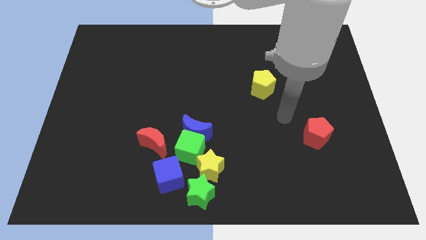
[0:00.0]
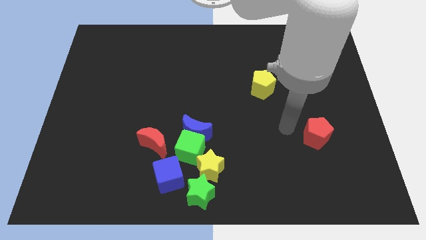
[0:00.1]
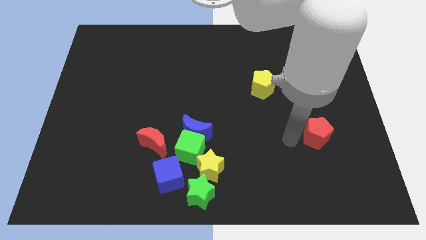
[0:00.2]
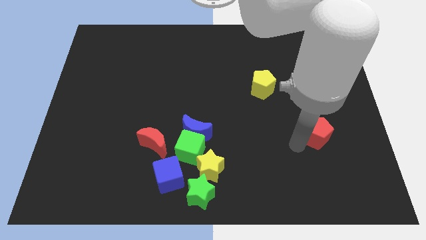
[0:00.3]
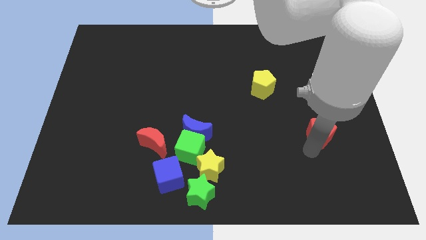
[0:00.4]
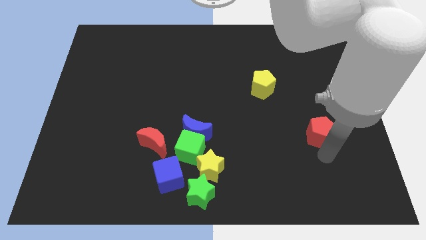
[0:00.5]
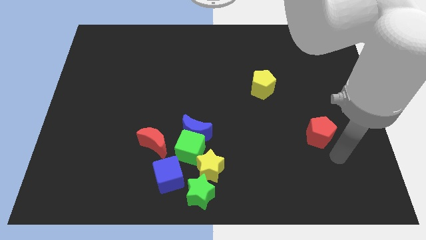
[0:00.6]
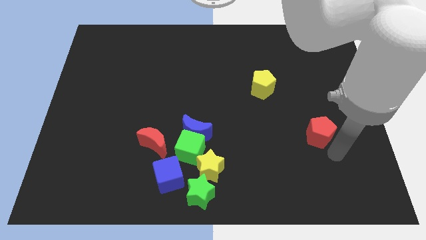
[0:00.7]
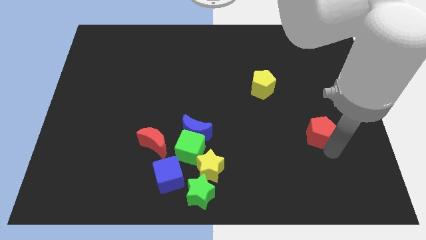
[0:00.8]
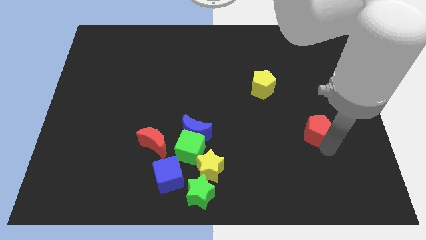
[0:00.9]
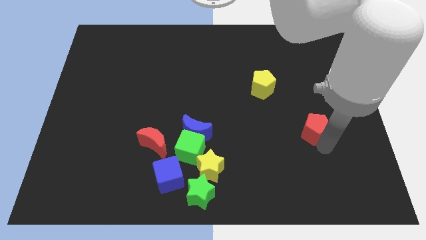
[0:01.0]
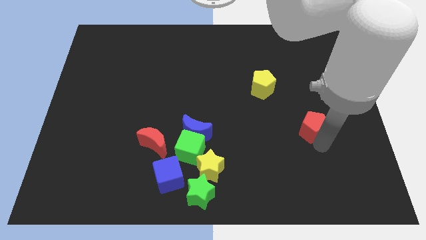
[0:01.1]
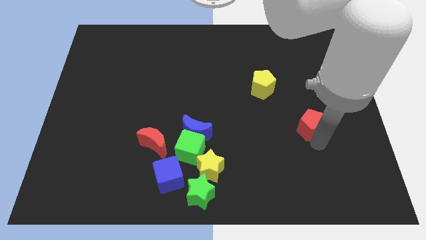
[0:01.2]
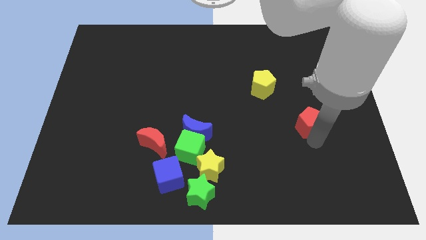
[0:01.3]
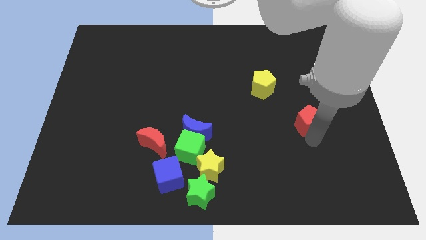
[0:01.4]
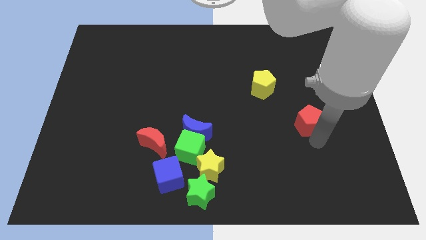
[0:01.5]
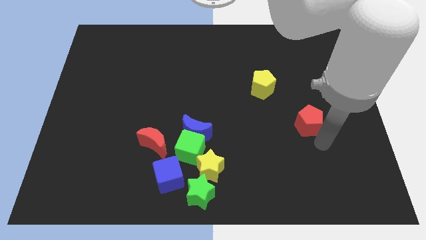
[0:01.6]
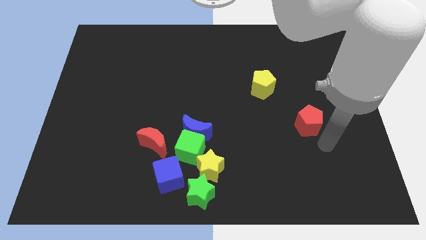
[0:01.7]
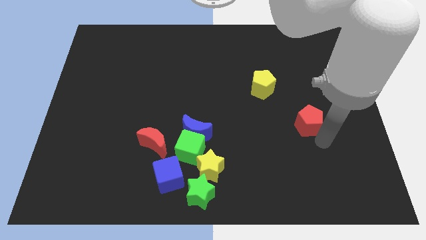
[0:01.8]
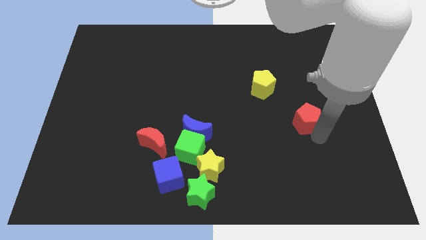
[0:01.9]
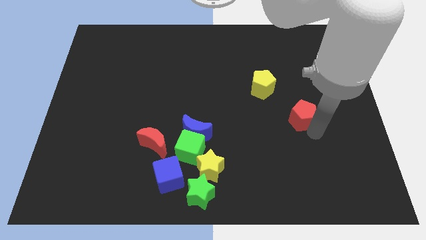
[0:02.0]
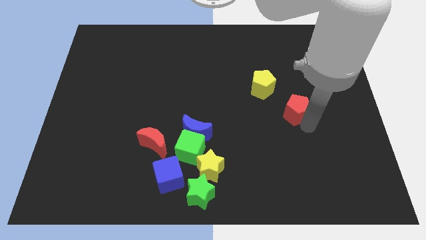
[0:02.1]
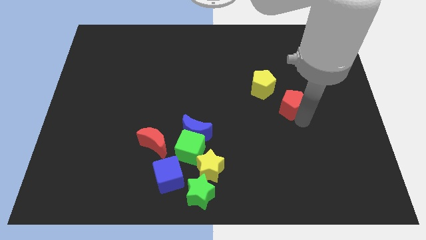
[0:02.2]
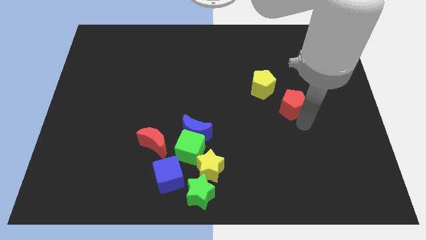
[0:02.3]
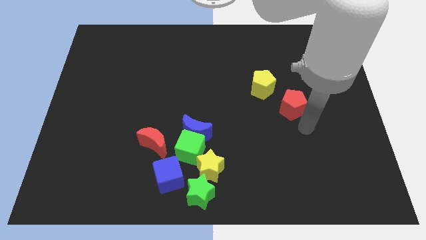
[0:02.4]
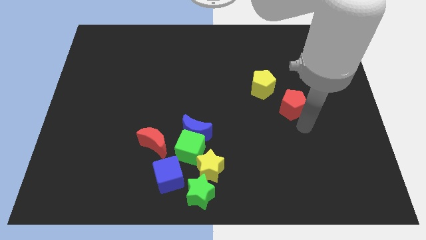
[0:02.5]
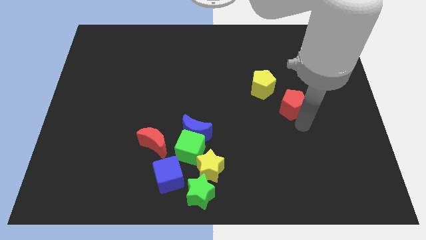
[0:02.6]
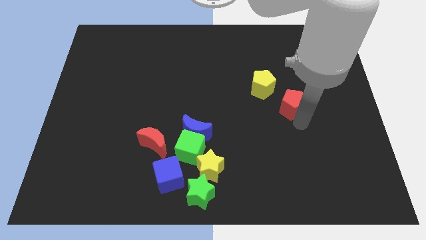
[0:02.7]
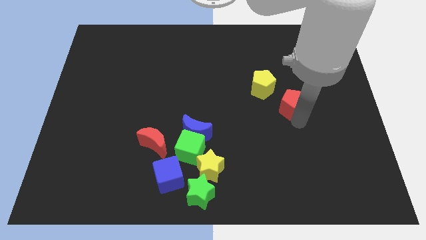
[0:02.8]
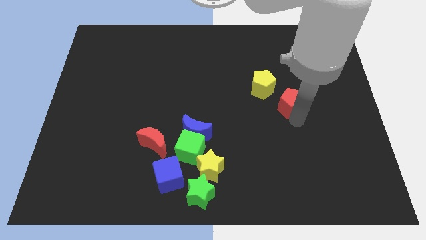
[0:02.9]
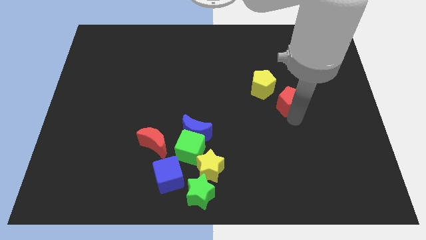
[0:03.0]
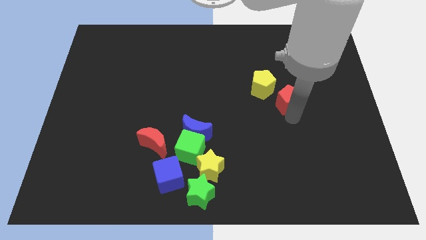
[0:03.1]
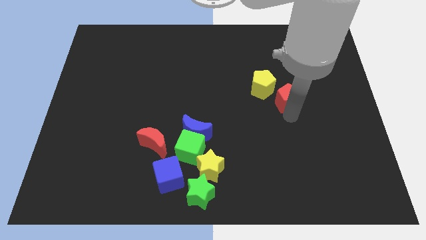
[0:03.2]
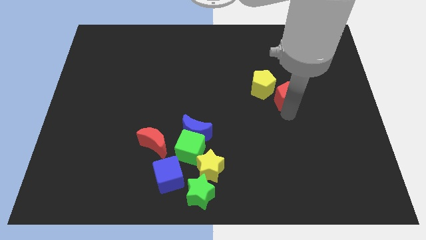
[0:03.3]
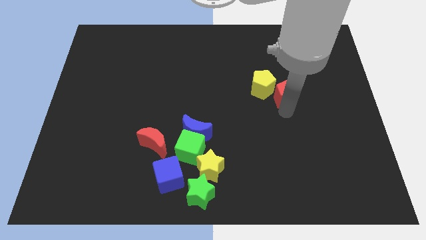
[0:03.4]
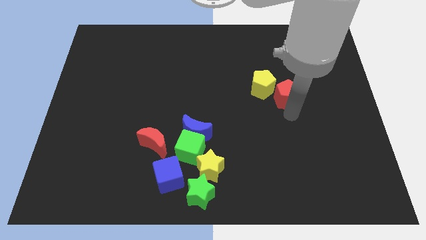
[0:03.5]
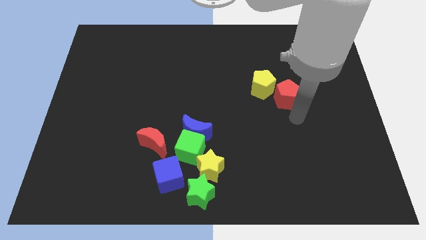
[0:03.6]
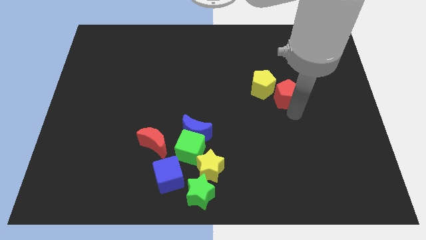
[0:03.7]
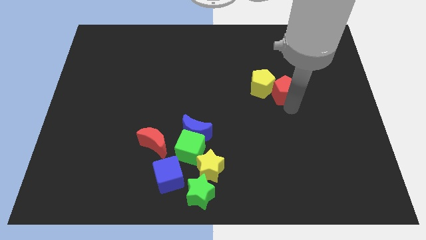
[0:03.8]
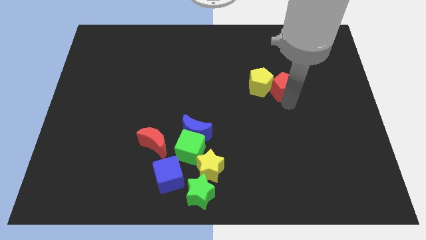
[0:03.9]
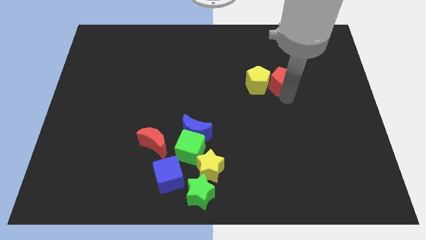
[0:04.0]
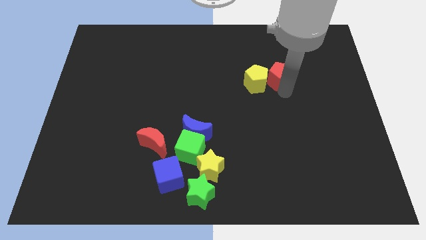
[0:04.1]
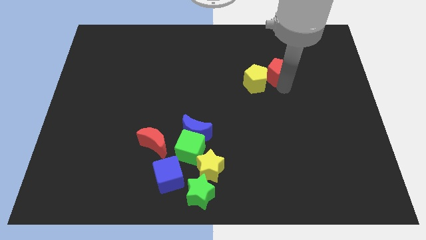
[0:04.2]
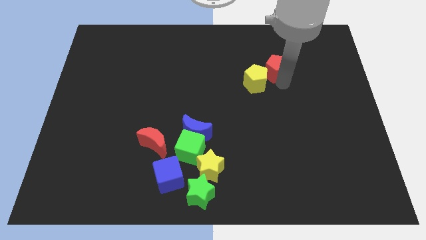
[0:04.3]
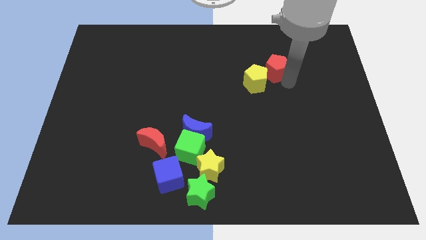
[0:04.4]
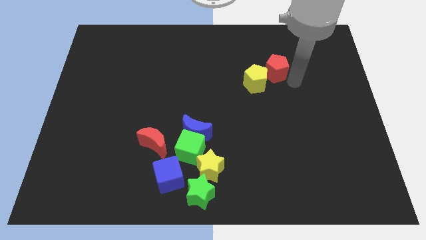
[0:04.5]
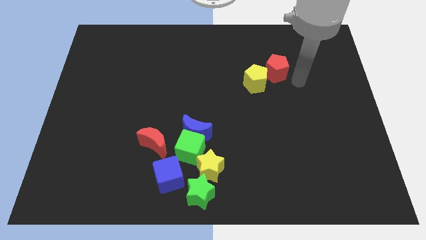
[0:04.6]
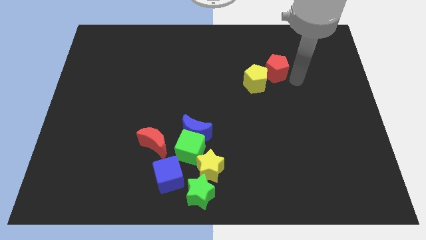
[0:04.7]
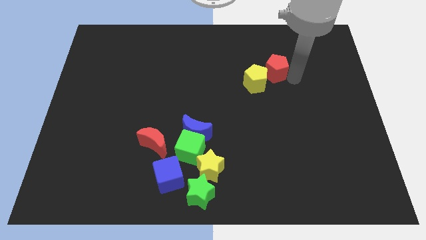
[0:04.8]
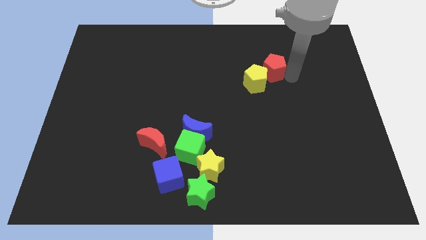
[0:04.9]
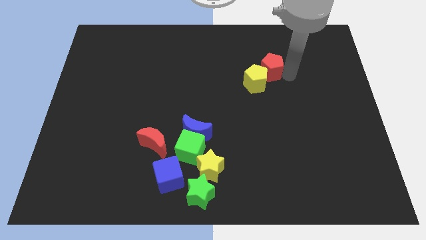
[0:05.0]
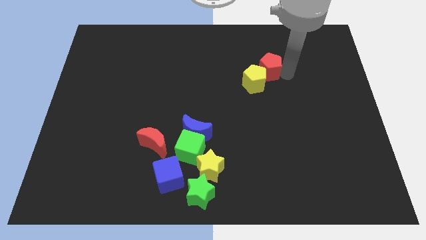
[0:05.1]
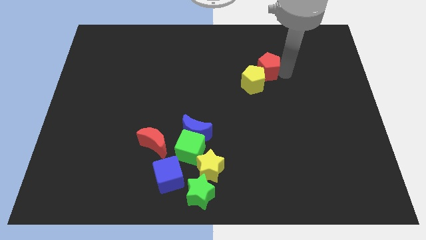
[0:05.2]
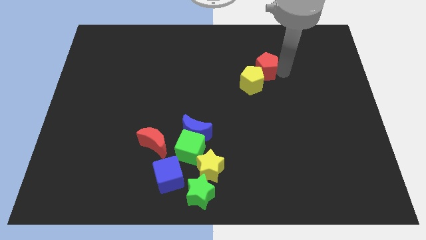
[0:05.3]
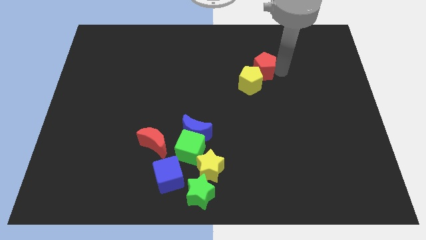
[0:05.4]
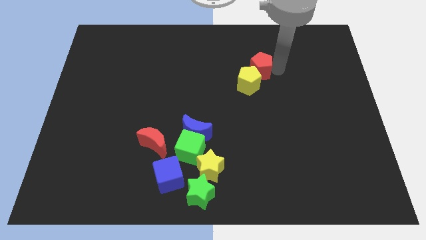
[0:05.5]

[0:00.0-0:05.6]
slide the red pentagon up and to the left diagonally

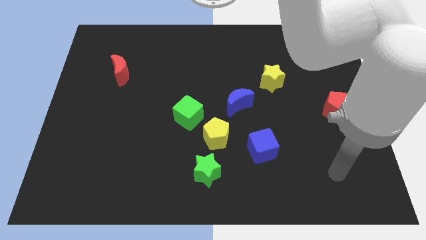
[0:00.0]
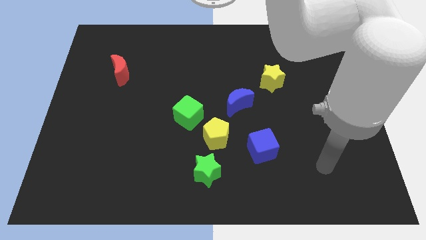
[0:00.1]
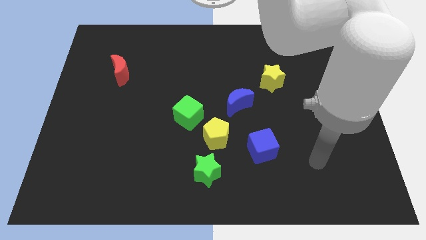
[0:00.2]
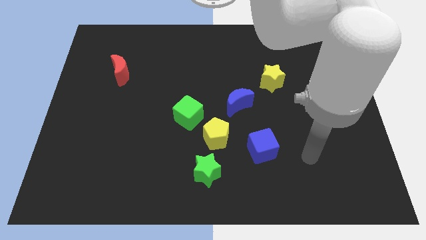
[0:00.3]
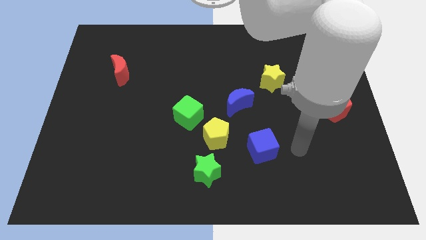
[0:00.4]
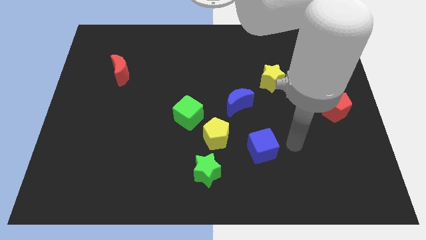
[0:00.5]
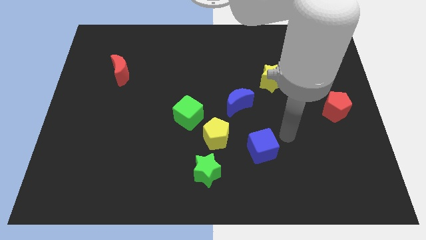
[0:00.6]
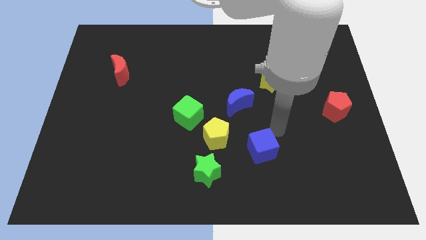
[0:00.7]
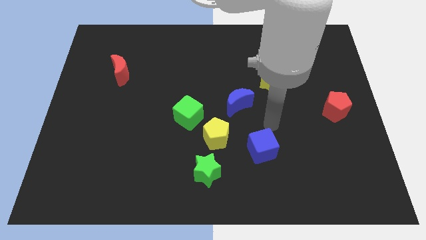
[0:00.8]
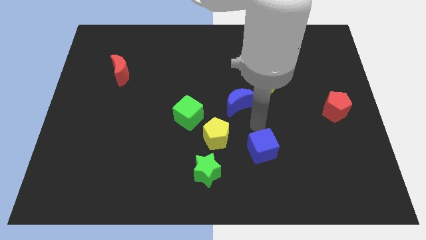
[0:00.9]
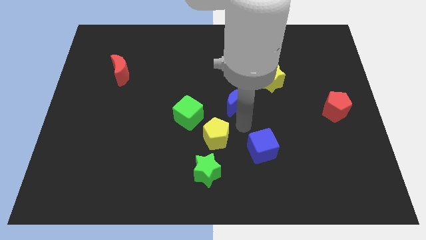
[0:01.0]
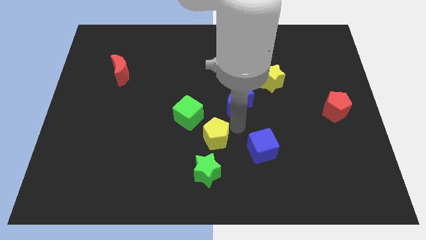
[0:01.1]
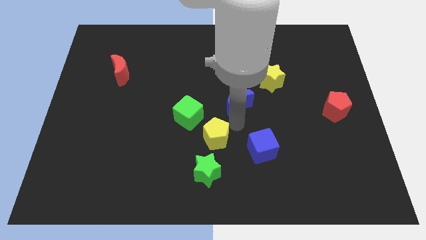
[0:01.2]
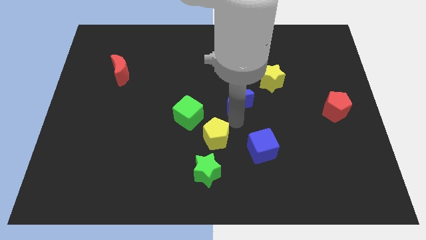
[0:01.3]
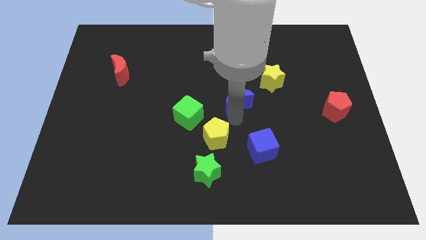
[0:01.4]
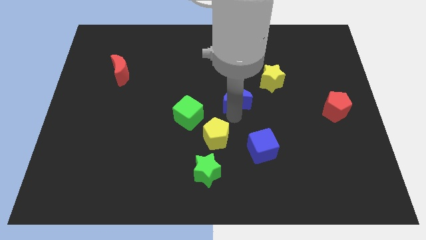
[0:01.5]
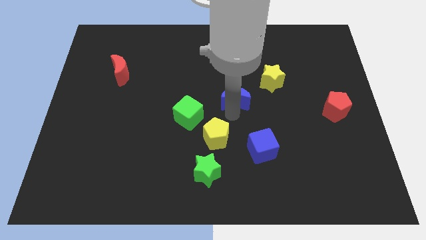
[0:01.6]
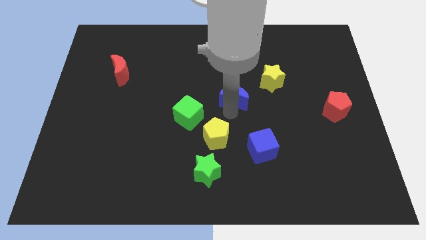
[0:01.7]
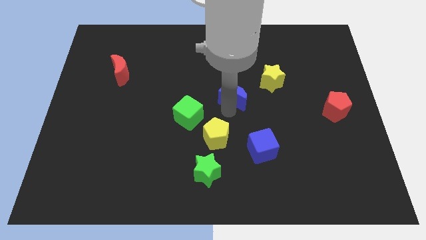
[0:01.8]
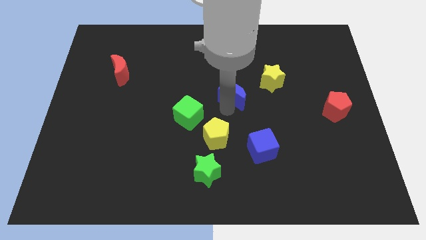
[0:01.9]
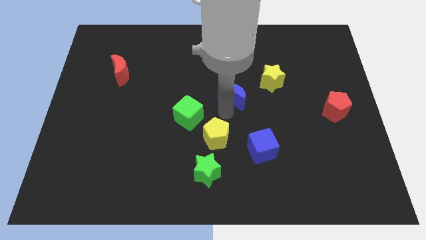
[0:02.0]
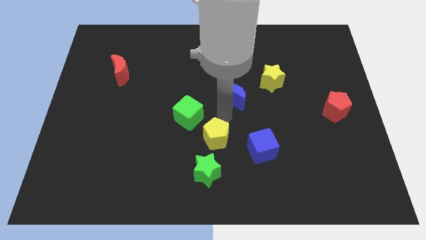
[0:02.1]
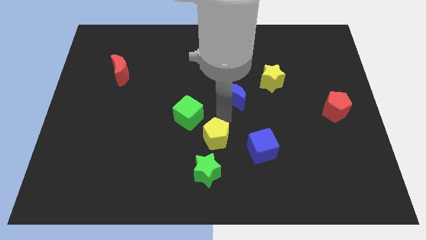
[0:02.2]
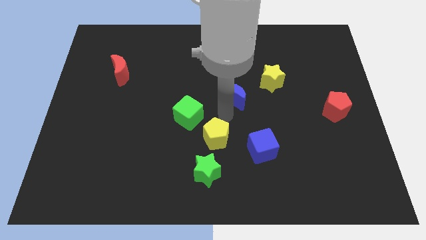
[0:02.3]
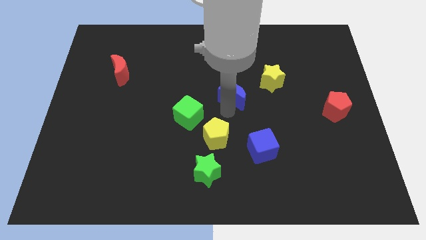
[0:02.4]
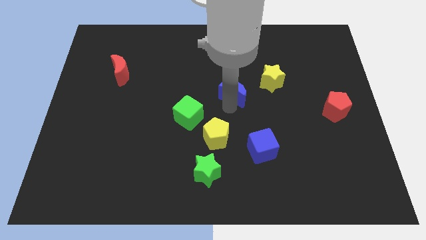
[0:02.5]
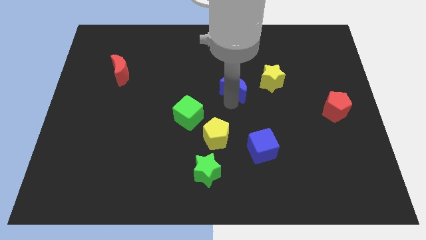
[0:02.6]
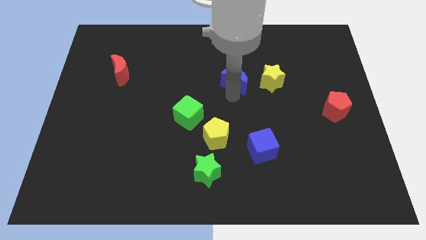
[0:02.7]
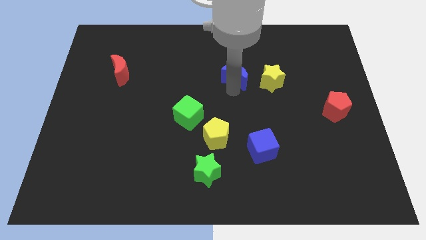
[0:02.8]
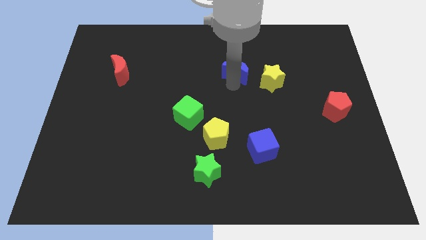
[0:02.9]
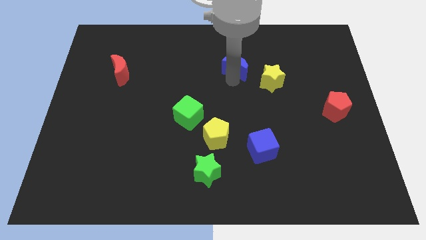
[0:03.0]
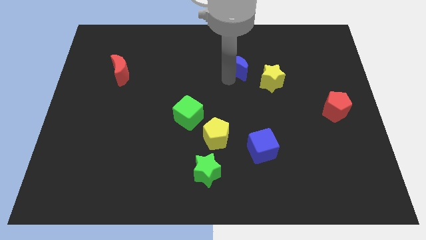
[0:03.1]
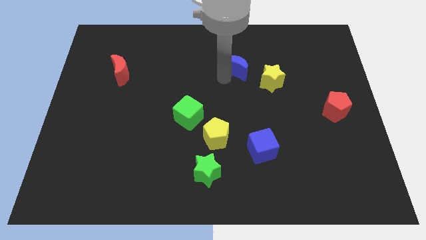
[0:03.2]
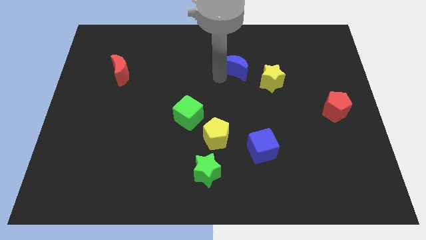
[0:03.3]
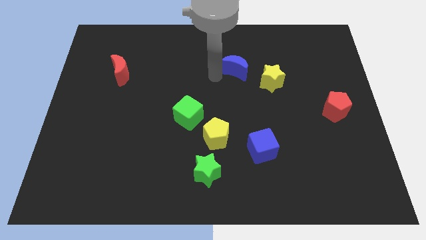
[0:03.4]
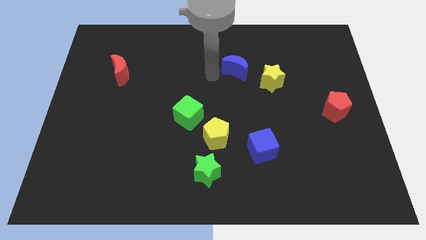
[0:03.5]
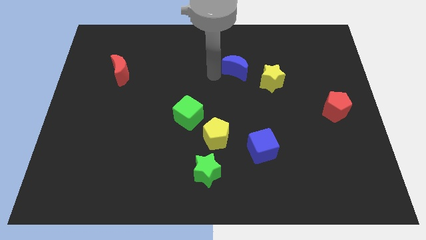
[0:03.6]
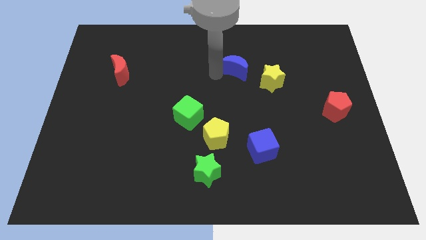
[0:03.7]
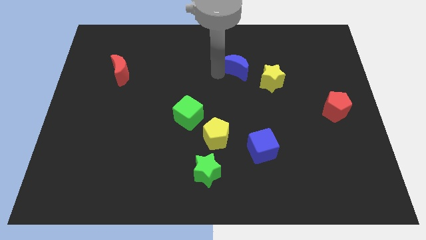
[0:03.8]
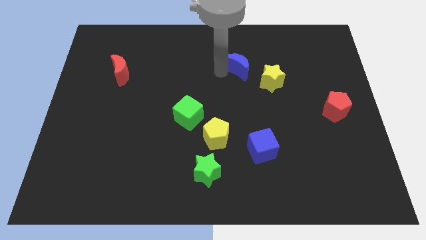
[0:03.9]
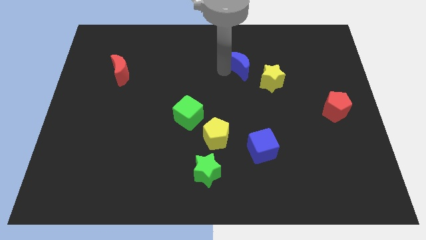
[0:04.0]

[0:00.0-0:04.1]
move the blue moon a bit up and right
